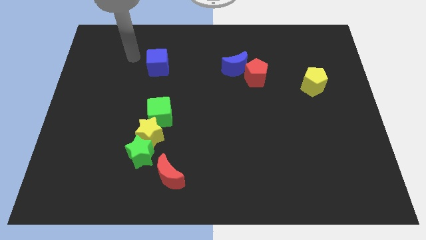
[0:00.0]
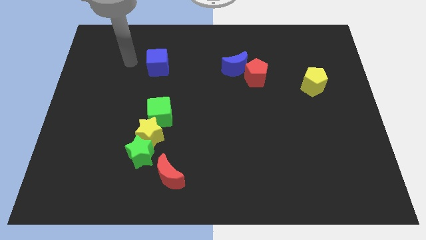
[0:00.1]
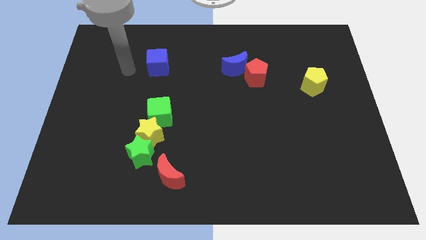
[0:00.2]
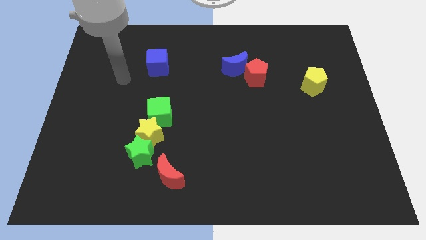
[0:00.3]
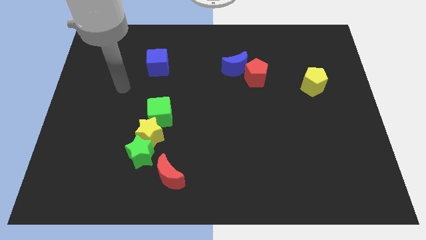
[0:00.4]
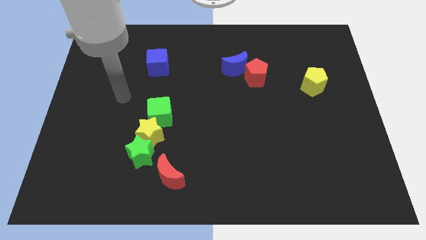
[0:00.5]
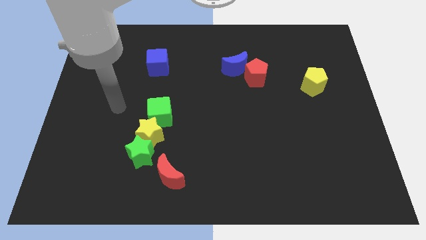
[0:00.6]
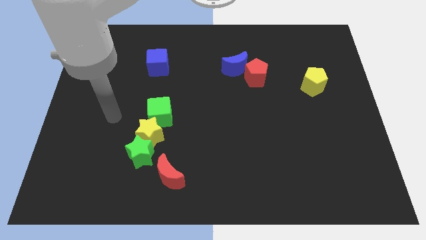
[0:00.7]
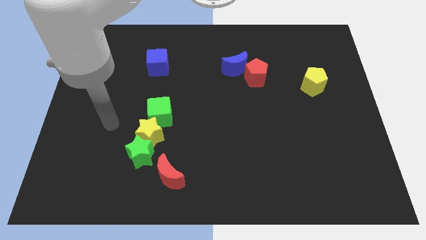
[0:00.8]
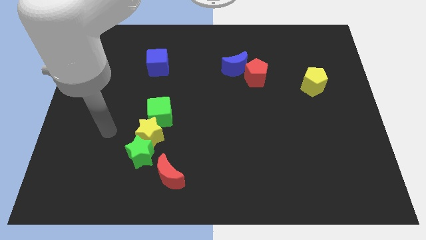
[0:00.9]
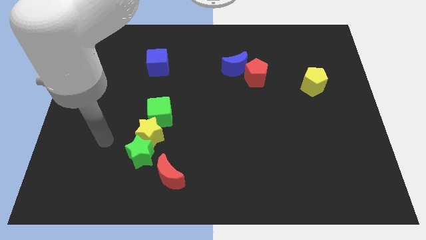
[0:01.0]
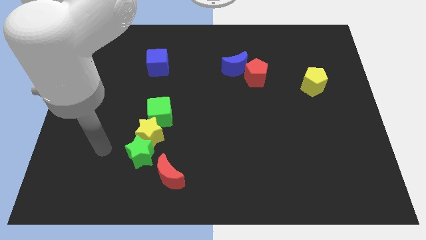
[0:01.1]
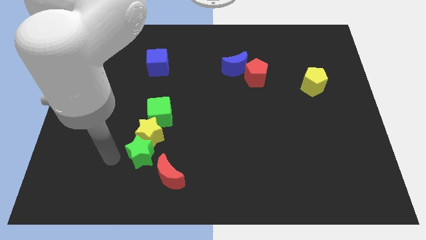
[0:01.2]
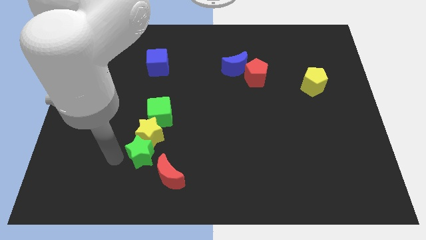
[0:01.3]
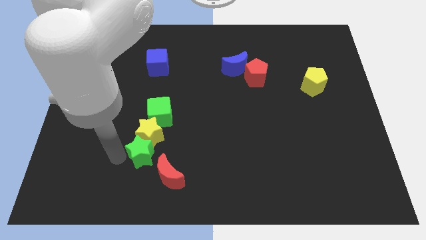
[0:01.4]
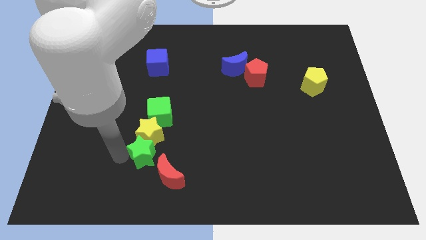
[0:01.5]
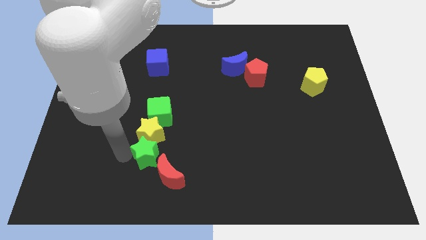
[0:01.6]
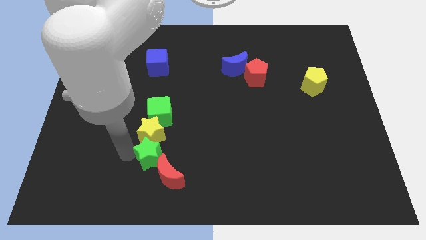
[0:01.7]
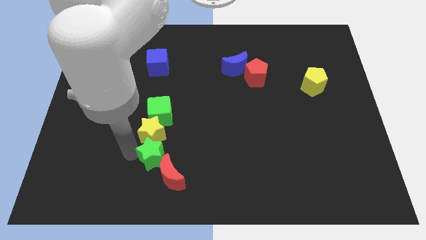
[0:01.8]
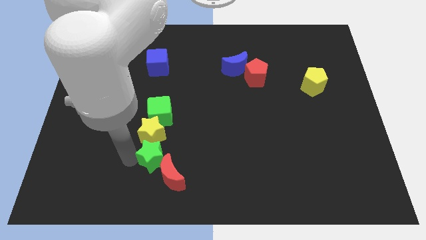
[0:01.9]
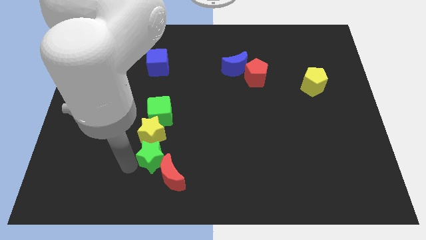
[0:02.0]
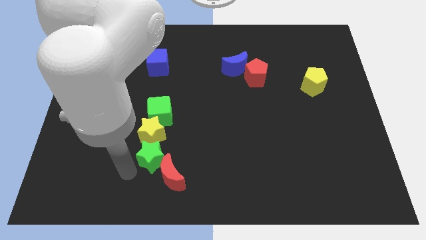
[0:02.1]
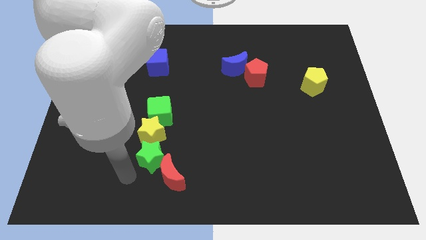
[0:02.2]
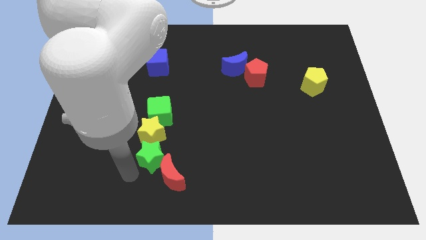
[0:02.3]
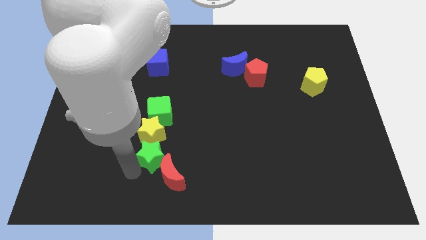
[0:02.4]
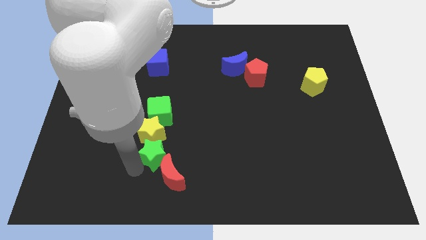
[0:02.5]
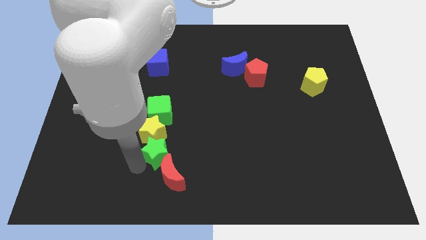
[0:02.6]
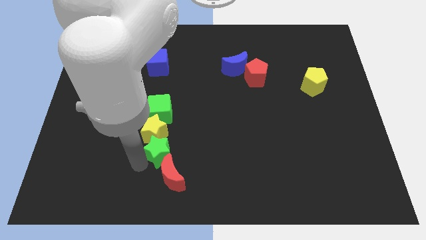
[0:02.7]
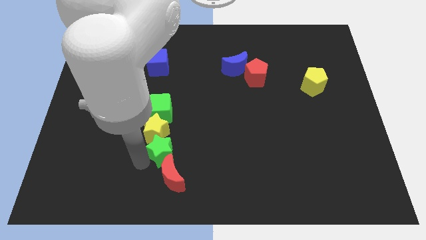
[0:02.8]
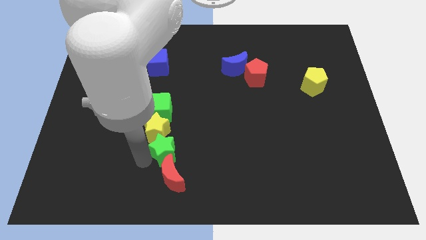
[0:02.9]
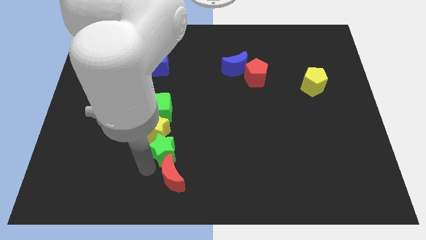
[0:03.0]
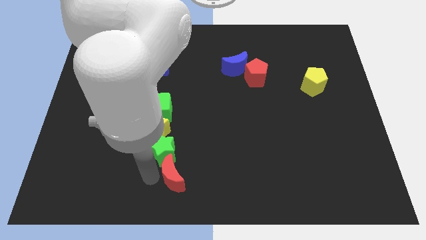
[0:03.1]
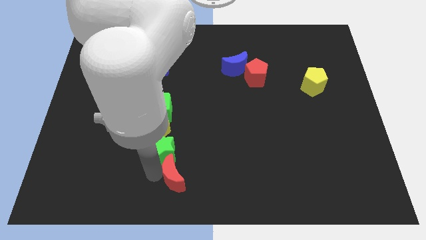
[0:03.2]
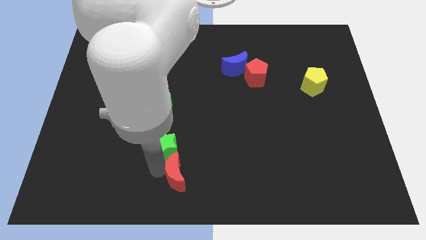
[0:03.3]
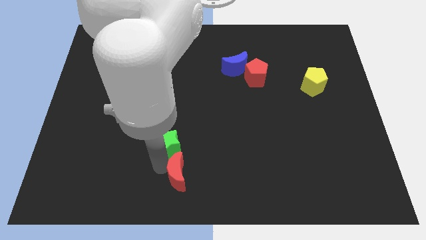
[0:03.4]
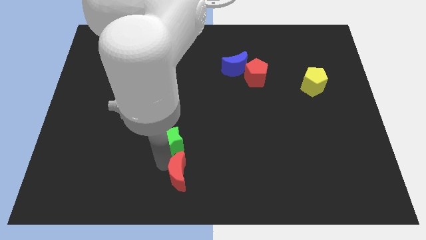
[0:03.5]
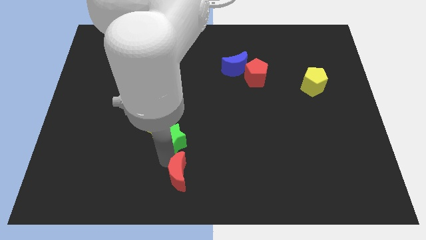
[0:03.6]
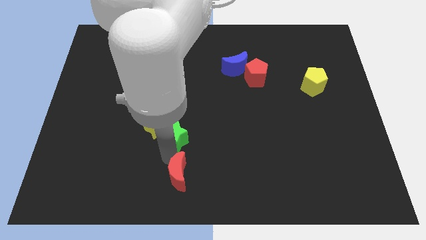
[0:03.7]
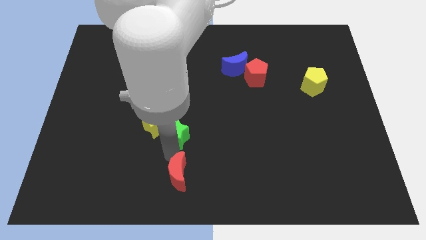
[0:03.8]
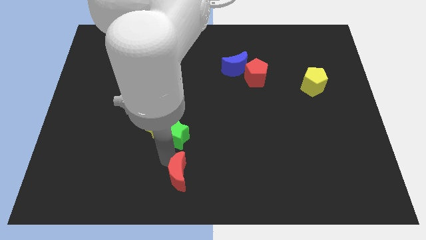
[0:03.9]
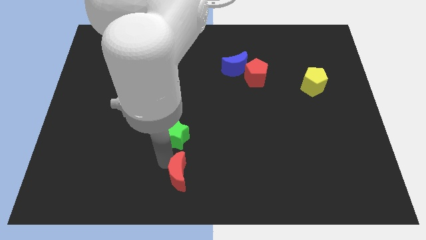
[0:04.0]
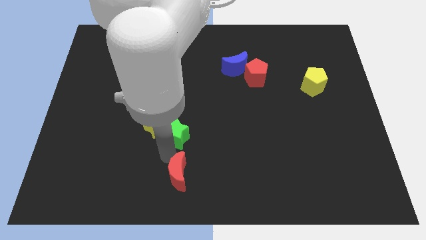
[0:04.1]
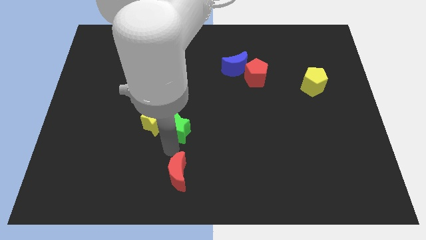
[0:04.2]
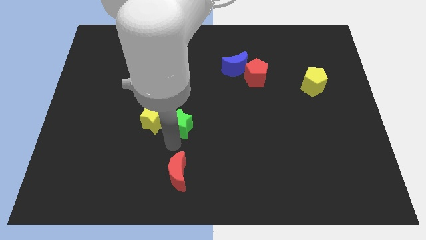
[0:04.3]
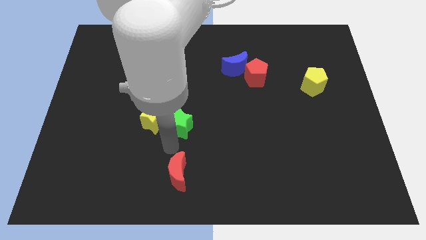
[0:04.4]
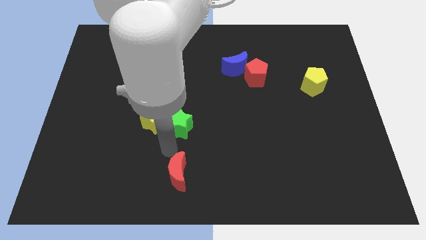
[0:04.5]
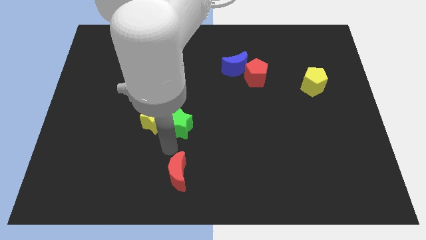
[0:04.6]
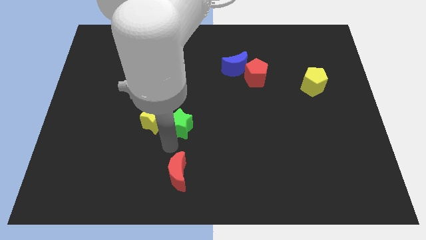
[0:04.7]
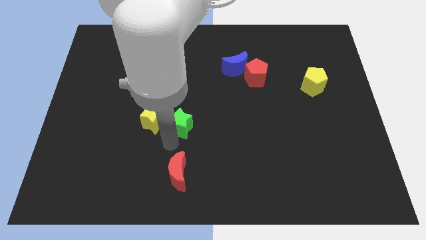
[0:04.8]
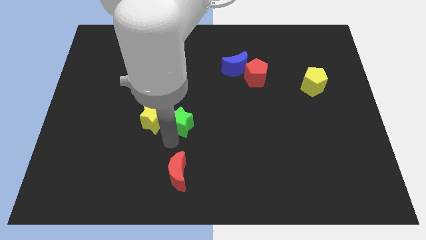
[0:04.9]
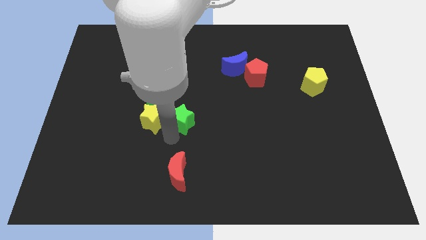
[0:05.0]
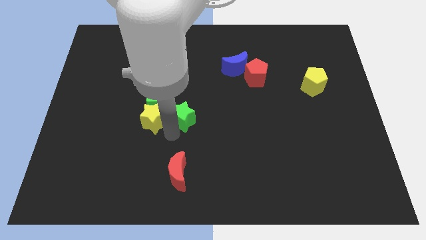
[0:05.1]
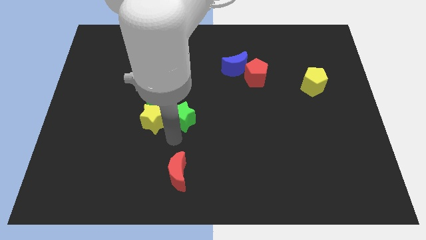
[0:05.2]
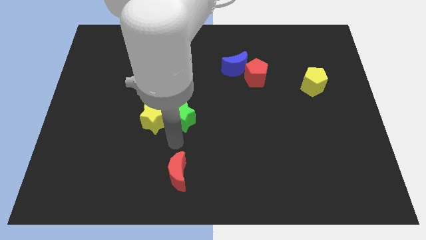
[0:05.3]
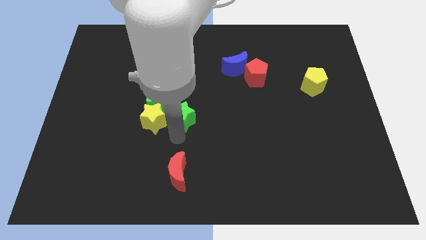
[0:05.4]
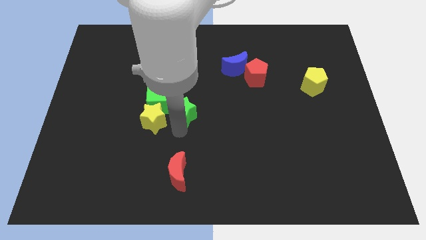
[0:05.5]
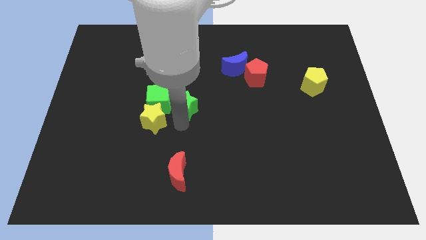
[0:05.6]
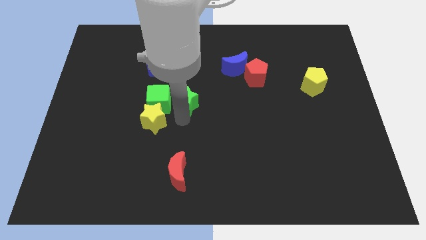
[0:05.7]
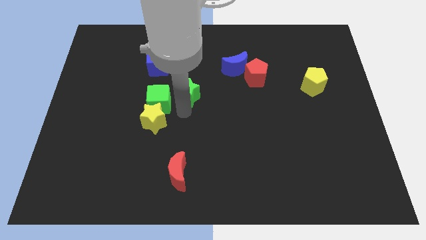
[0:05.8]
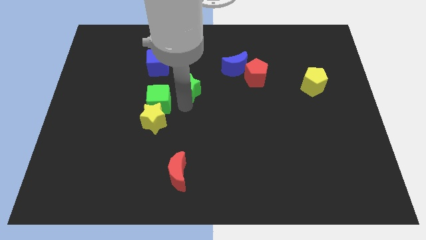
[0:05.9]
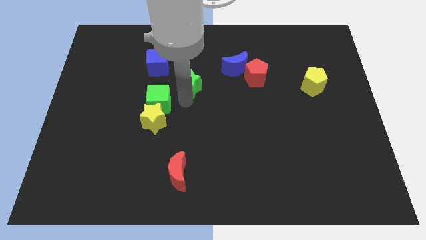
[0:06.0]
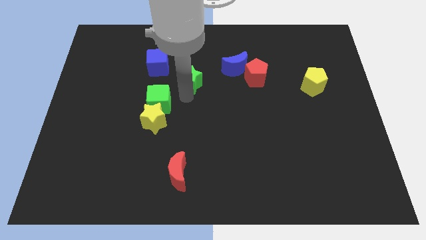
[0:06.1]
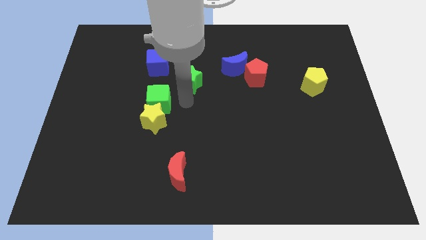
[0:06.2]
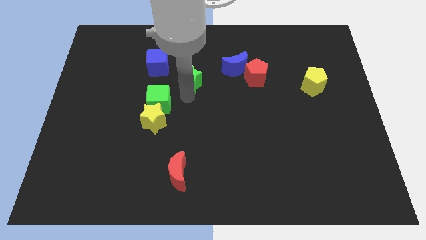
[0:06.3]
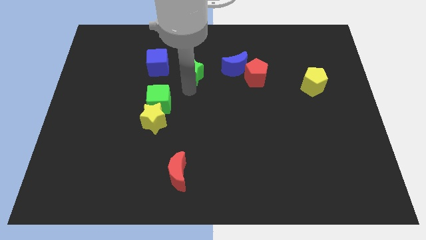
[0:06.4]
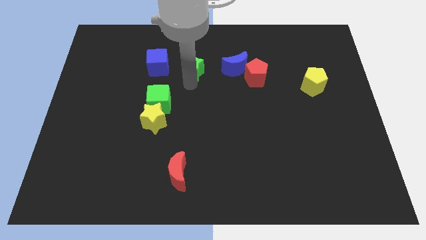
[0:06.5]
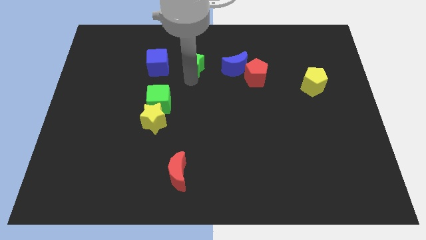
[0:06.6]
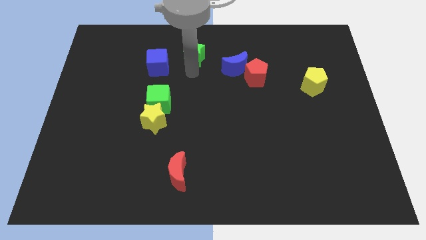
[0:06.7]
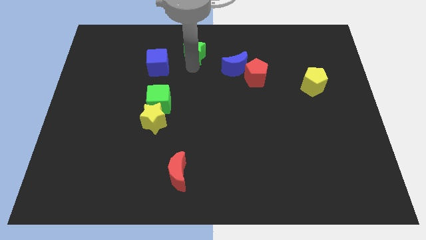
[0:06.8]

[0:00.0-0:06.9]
put the green star to the top side

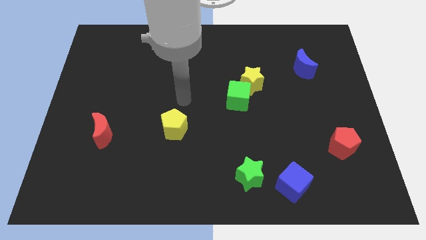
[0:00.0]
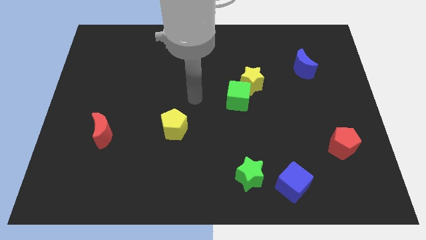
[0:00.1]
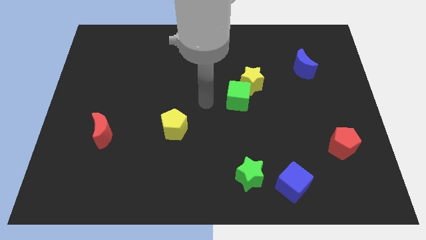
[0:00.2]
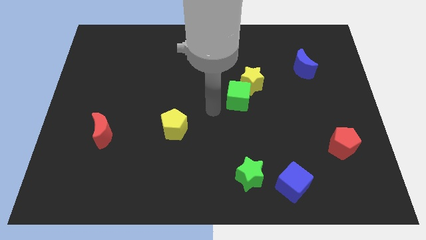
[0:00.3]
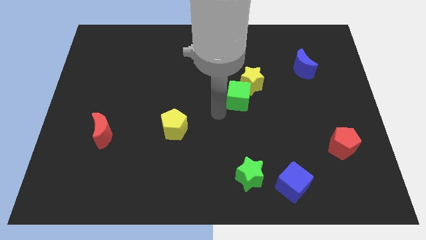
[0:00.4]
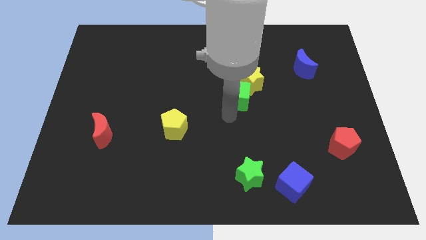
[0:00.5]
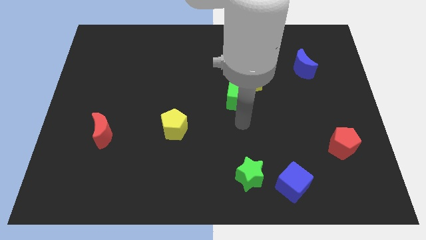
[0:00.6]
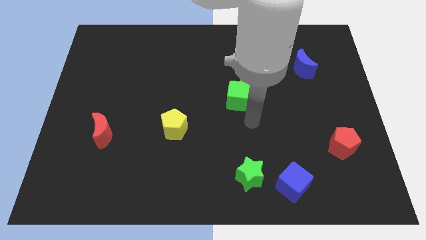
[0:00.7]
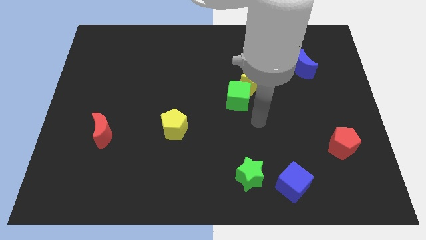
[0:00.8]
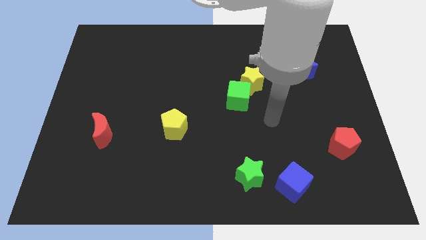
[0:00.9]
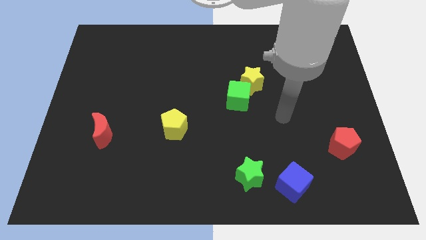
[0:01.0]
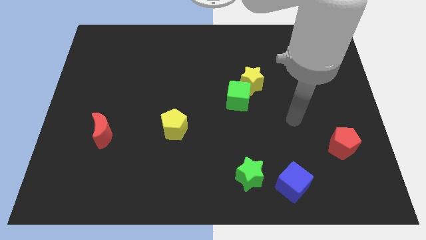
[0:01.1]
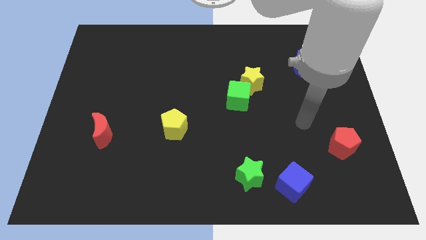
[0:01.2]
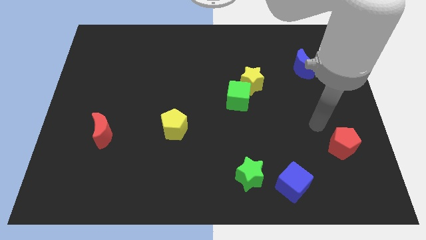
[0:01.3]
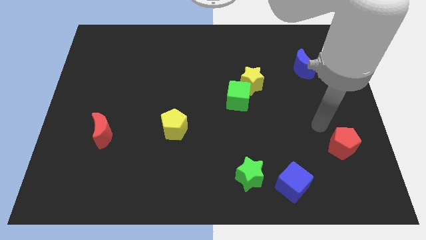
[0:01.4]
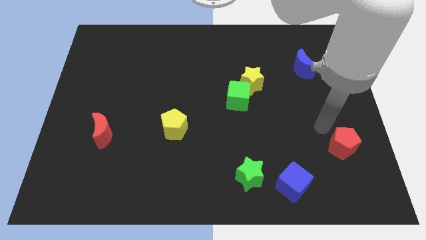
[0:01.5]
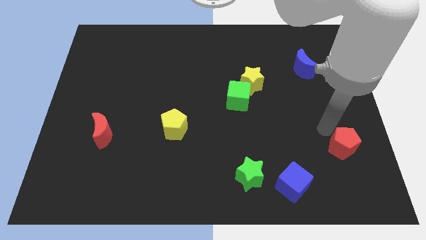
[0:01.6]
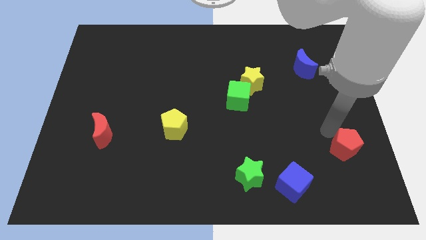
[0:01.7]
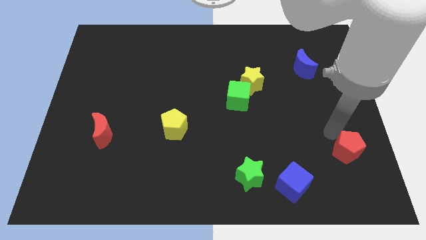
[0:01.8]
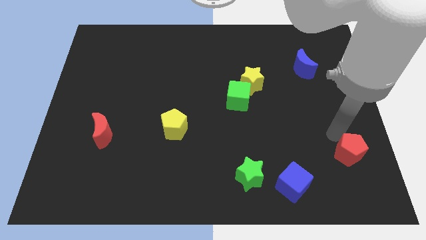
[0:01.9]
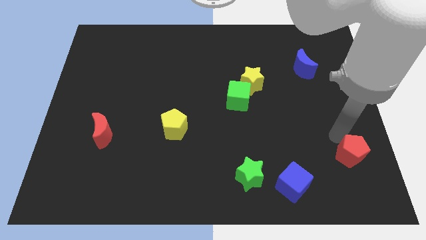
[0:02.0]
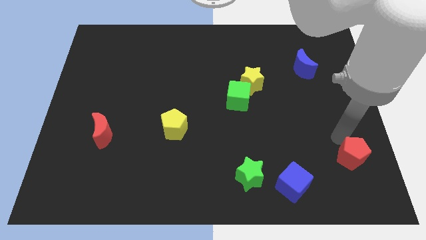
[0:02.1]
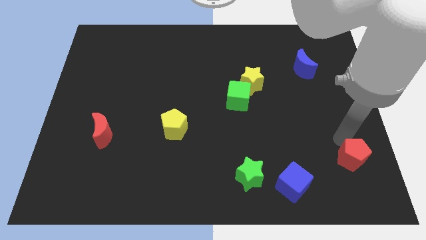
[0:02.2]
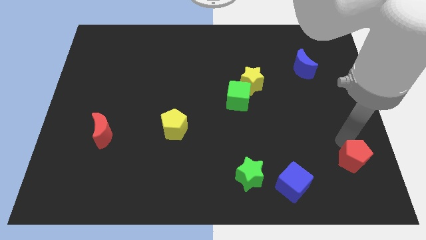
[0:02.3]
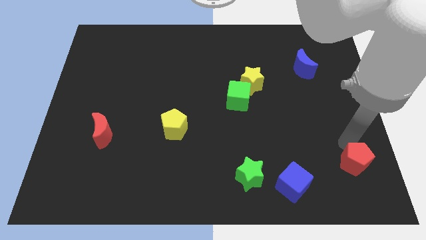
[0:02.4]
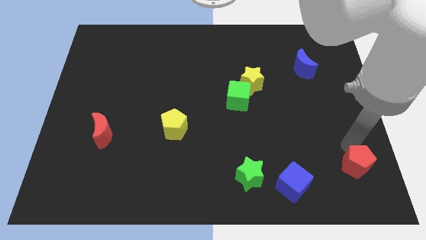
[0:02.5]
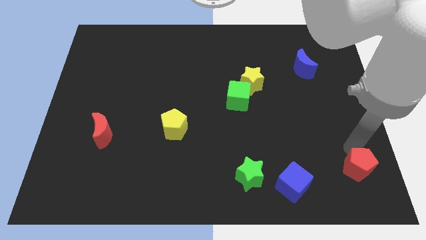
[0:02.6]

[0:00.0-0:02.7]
put the red pentagon to the bottom right corner
